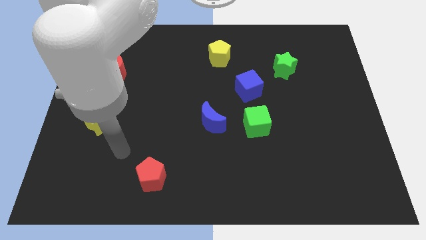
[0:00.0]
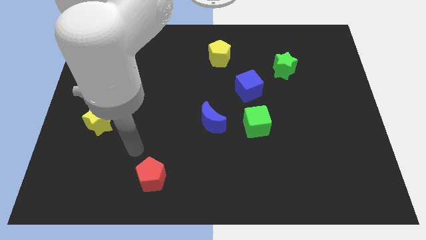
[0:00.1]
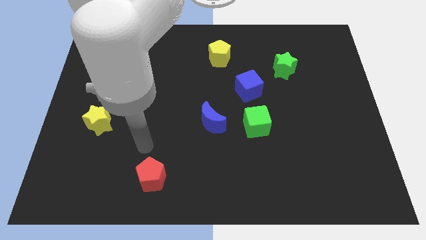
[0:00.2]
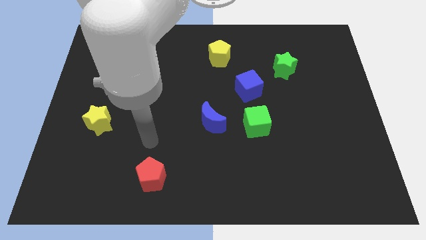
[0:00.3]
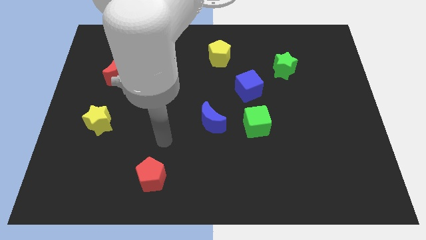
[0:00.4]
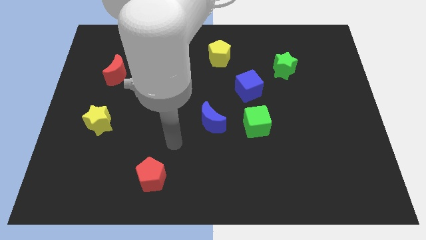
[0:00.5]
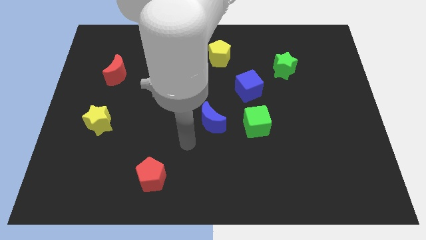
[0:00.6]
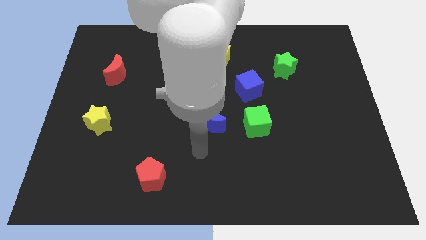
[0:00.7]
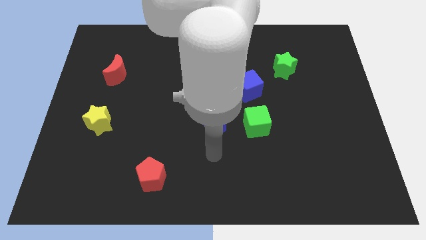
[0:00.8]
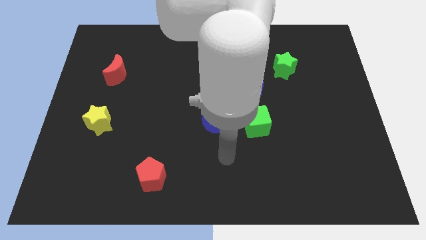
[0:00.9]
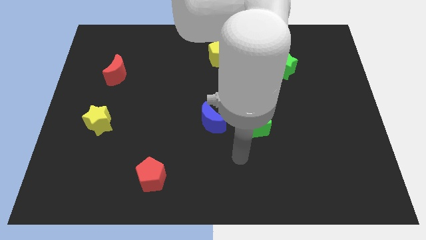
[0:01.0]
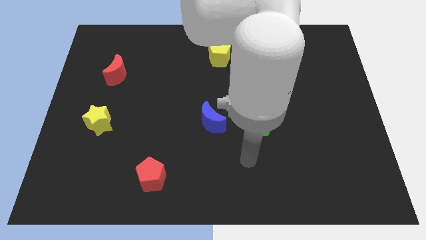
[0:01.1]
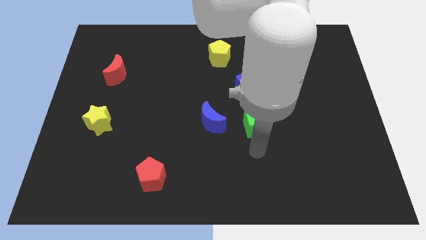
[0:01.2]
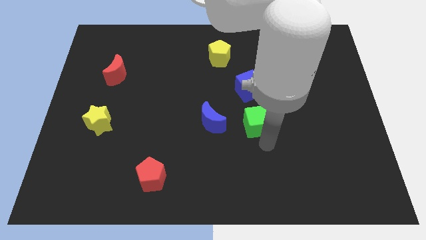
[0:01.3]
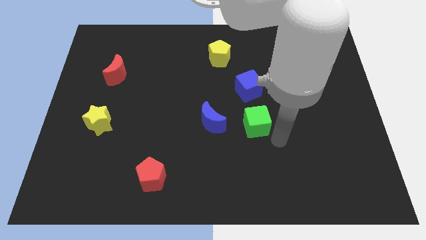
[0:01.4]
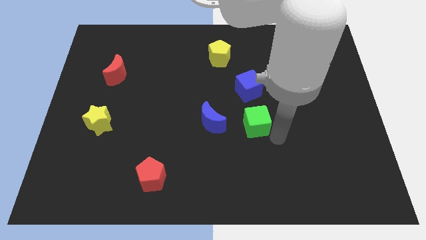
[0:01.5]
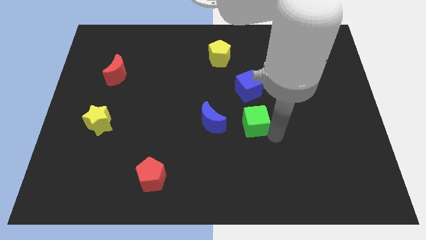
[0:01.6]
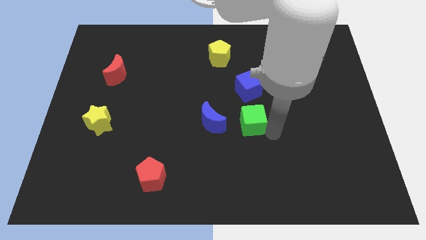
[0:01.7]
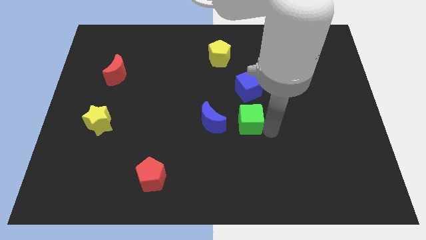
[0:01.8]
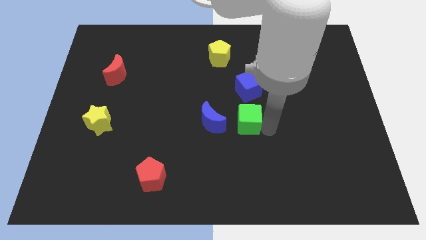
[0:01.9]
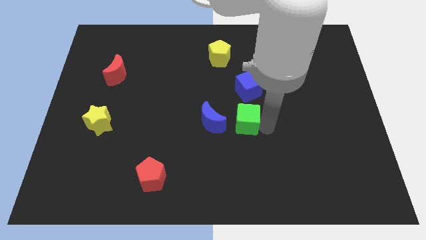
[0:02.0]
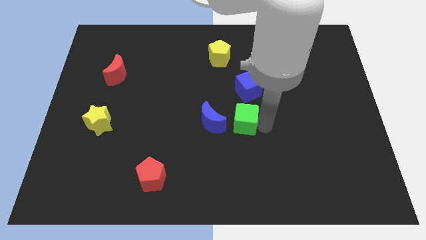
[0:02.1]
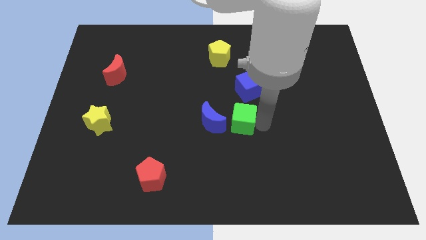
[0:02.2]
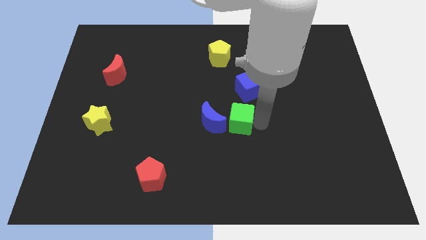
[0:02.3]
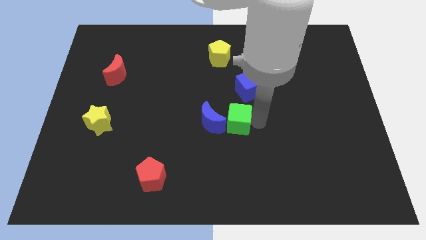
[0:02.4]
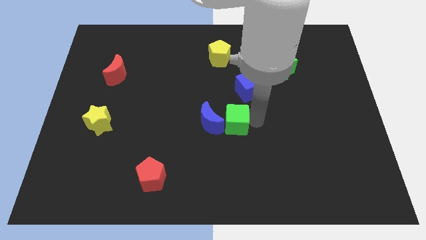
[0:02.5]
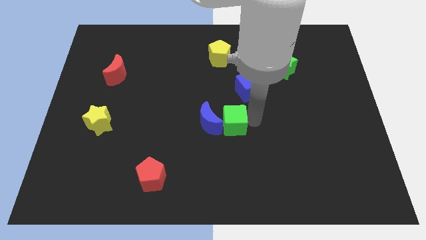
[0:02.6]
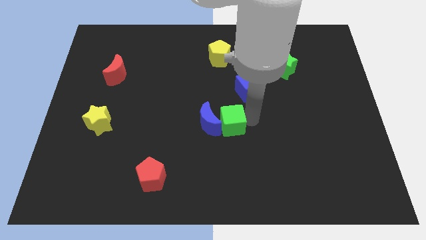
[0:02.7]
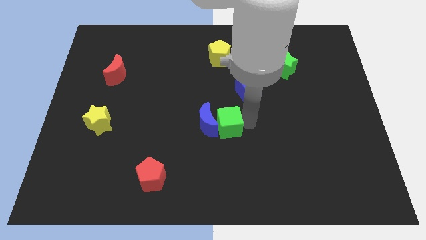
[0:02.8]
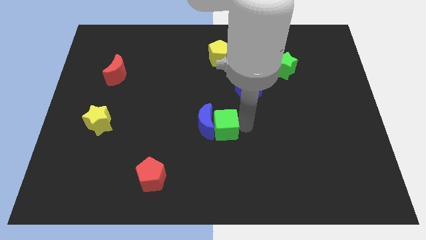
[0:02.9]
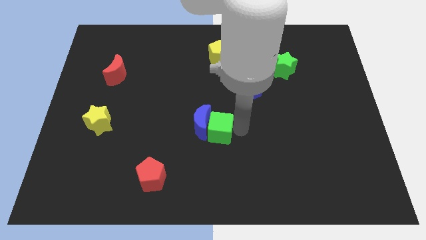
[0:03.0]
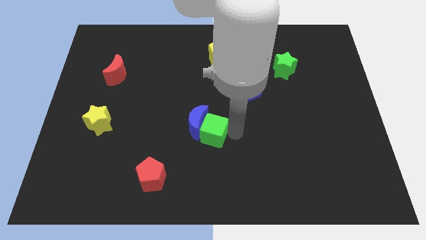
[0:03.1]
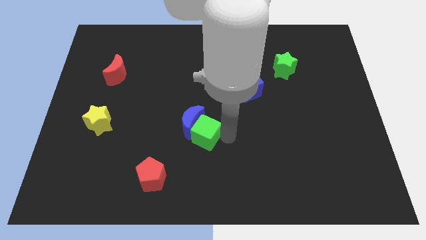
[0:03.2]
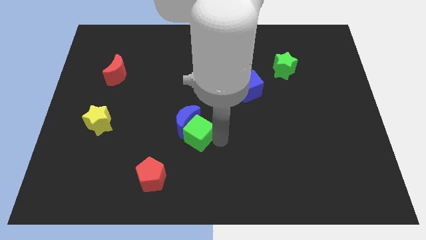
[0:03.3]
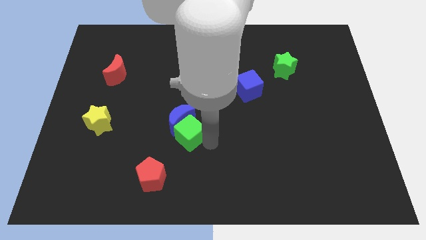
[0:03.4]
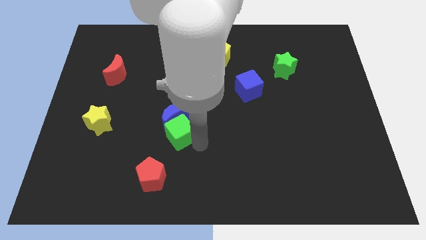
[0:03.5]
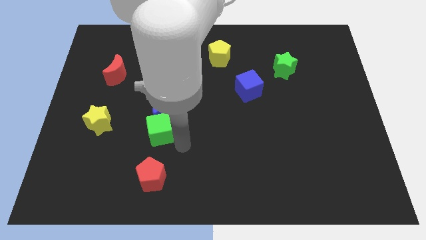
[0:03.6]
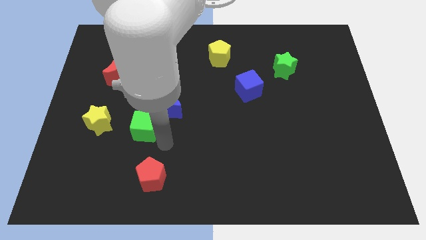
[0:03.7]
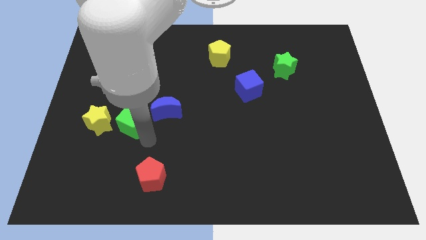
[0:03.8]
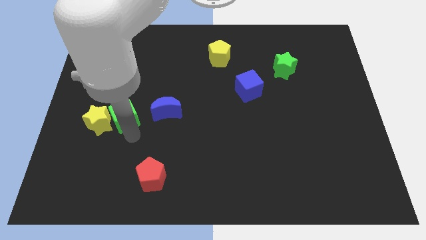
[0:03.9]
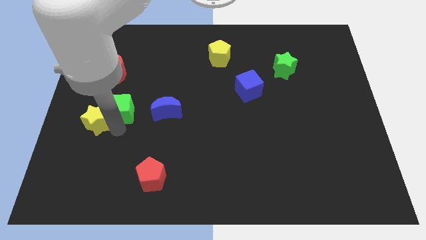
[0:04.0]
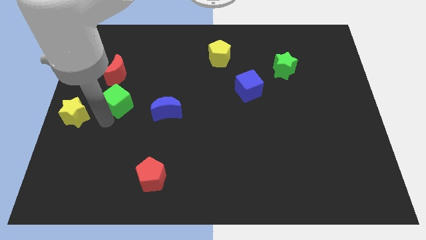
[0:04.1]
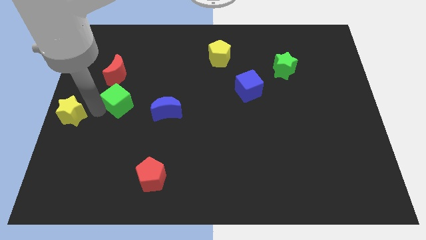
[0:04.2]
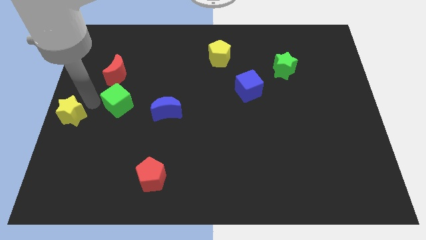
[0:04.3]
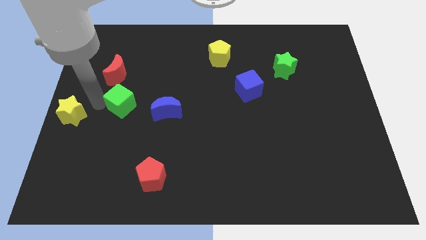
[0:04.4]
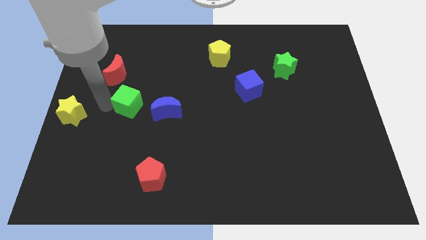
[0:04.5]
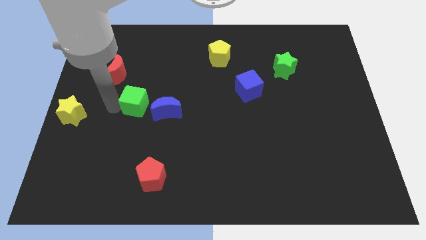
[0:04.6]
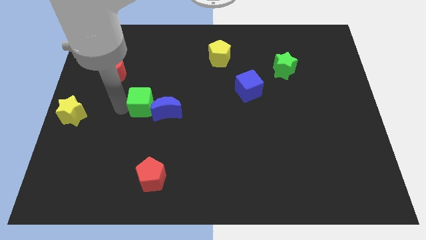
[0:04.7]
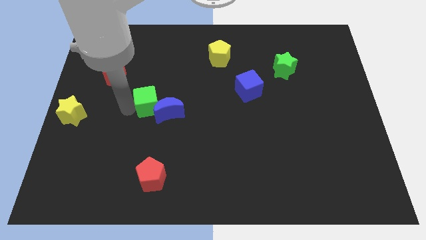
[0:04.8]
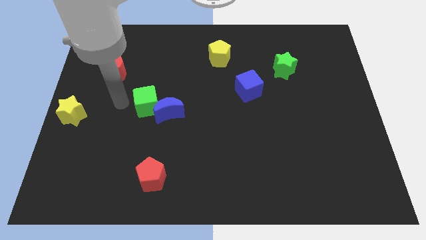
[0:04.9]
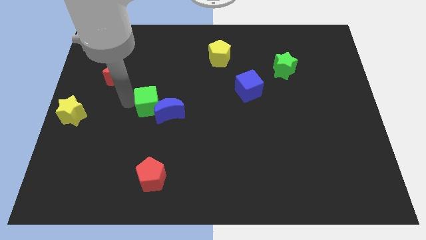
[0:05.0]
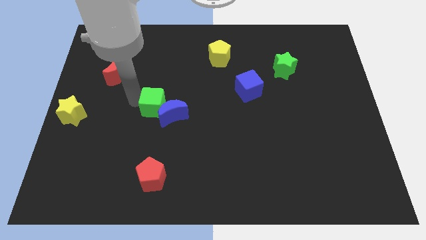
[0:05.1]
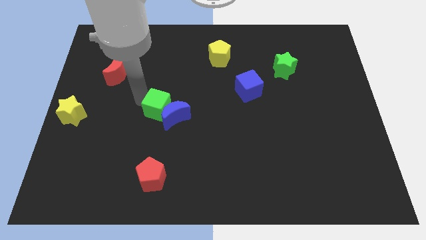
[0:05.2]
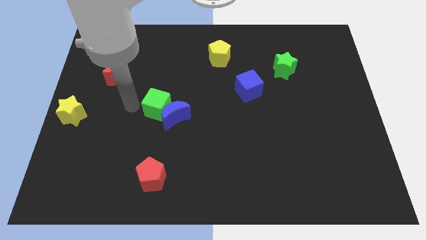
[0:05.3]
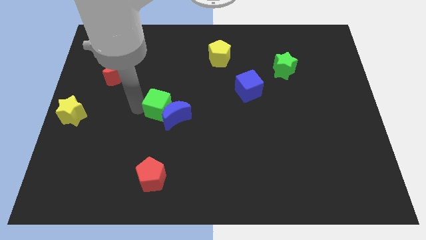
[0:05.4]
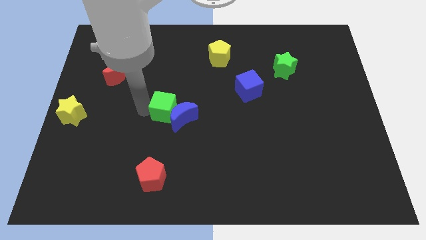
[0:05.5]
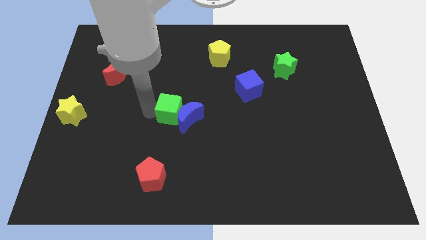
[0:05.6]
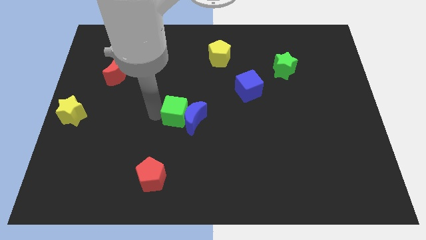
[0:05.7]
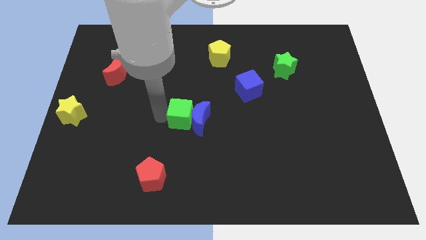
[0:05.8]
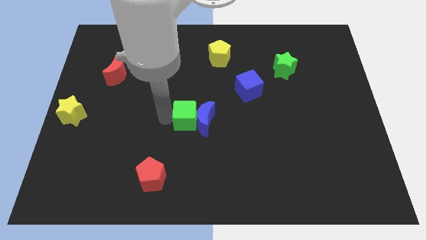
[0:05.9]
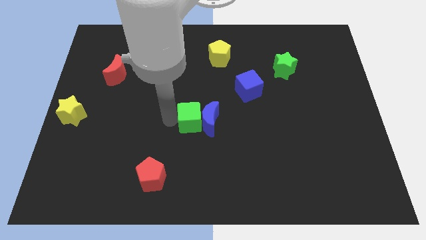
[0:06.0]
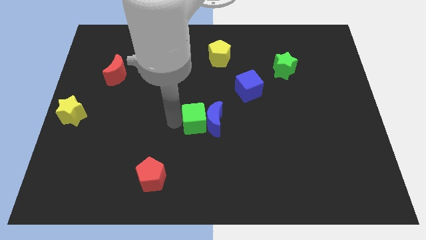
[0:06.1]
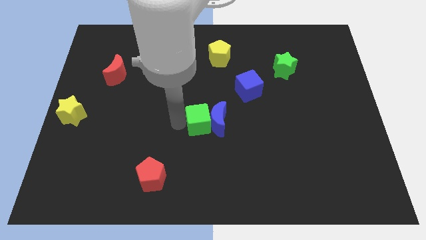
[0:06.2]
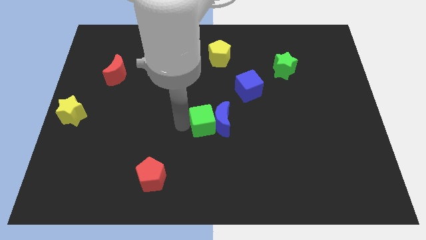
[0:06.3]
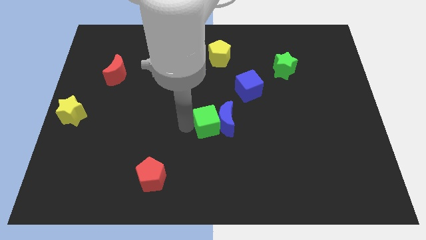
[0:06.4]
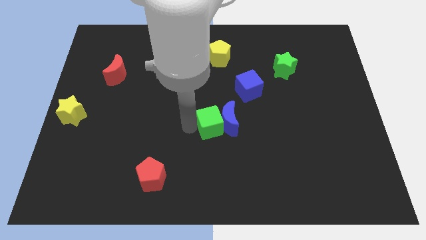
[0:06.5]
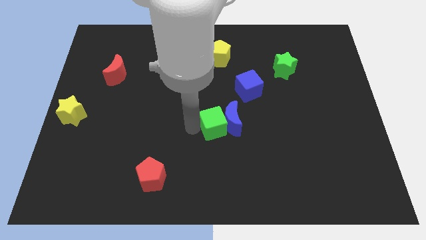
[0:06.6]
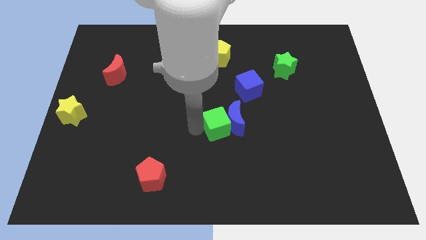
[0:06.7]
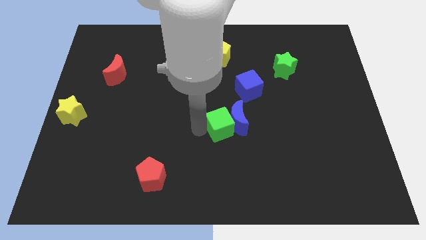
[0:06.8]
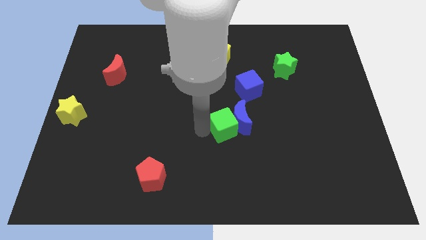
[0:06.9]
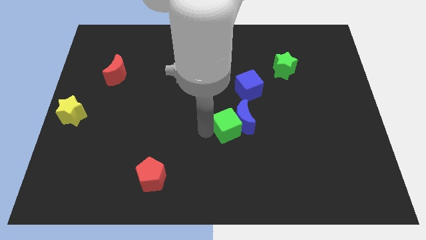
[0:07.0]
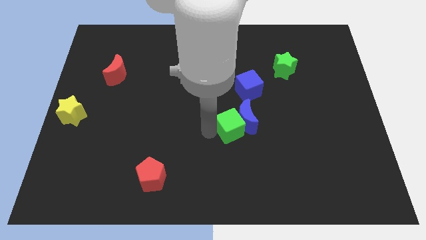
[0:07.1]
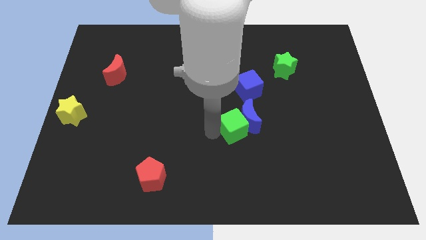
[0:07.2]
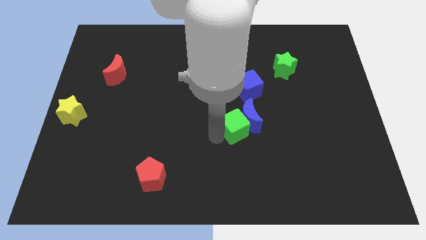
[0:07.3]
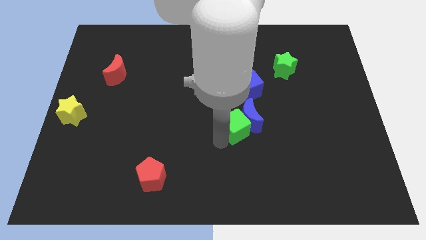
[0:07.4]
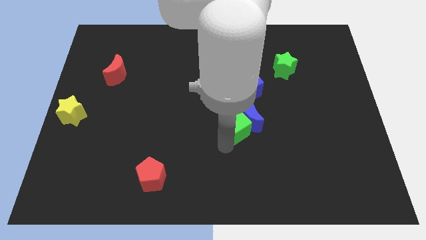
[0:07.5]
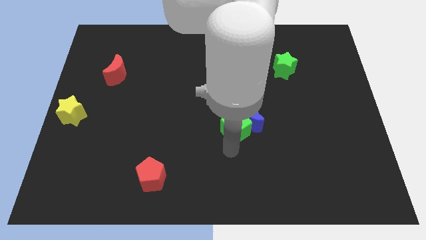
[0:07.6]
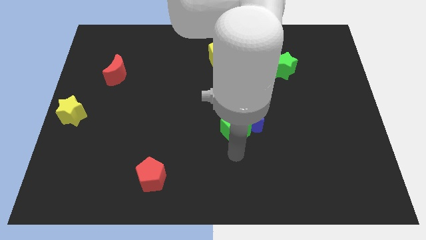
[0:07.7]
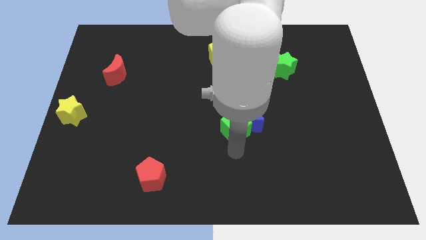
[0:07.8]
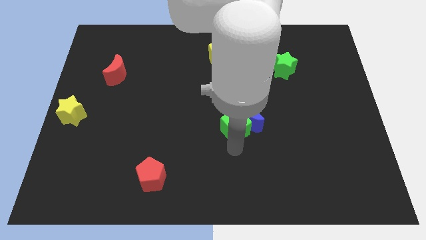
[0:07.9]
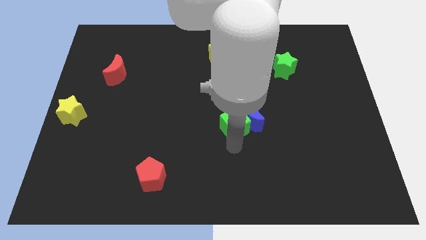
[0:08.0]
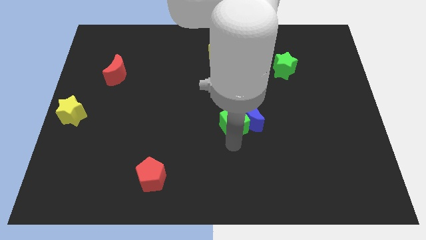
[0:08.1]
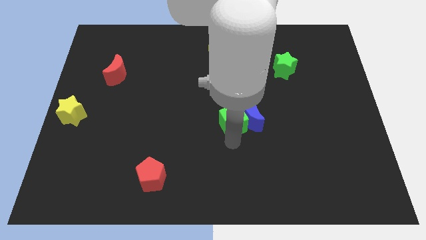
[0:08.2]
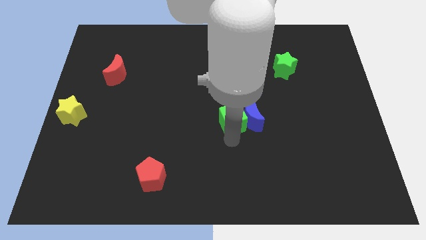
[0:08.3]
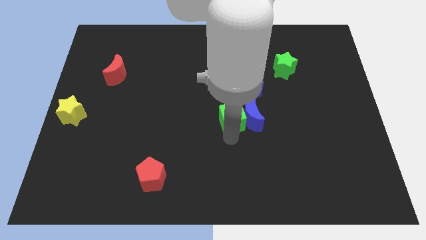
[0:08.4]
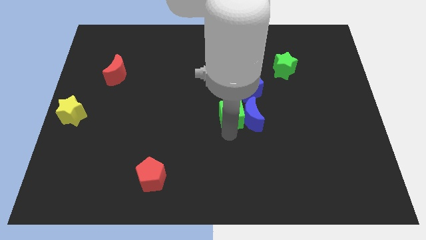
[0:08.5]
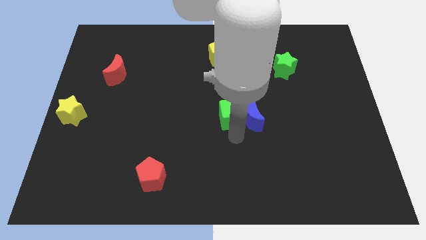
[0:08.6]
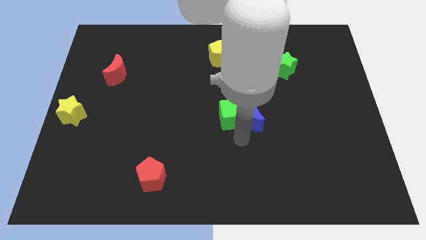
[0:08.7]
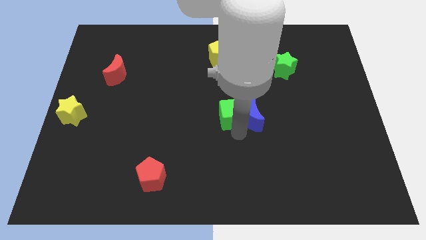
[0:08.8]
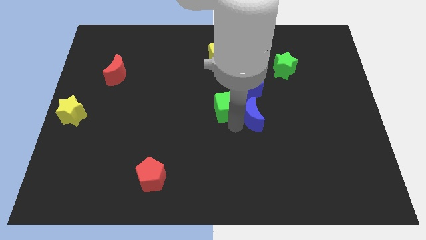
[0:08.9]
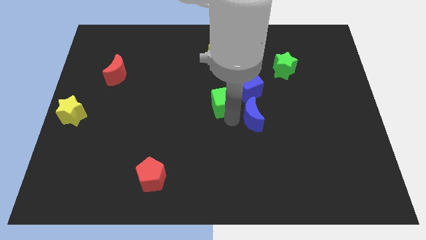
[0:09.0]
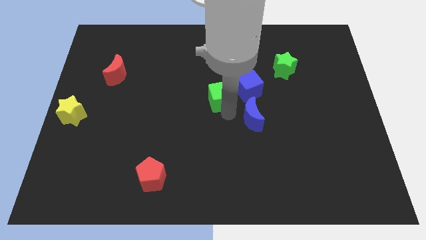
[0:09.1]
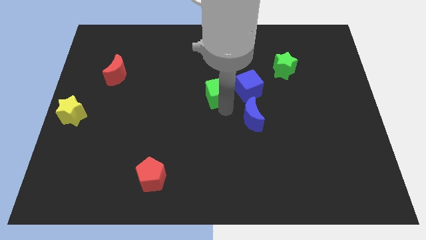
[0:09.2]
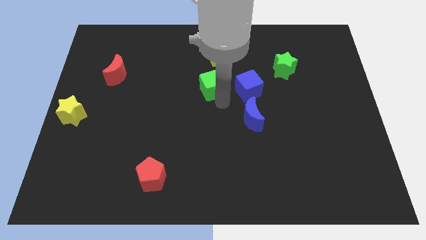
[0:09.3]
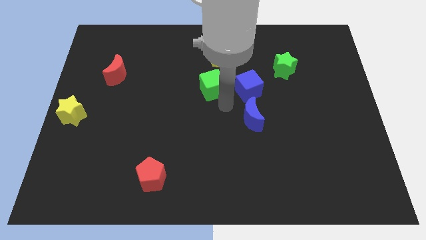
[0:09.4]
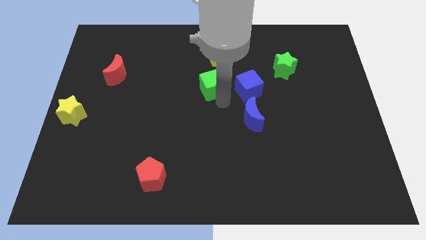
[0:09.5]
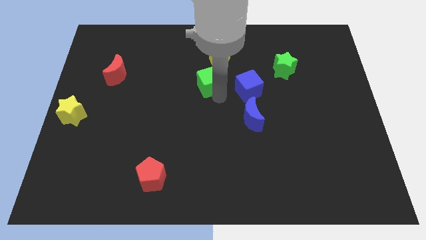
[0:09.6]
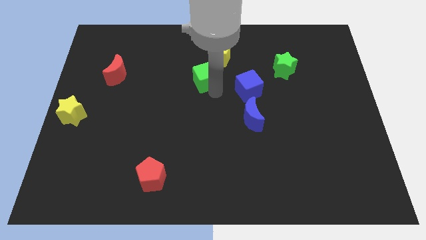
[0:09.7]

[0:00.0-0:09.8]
push the green cube to the bottom left of the yellow pentagon
